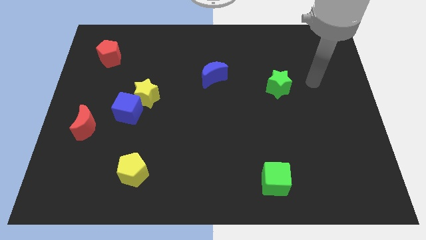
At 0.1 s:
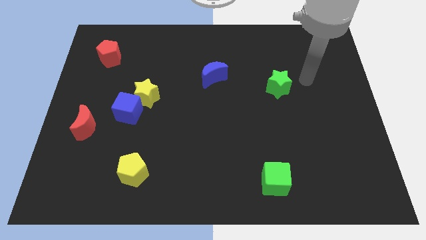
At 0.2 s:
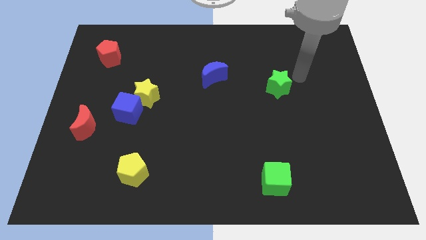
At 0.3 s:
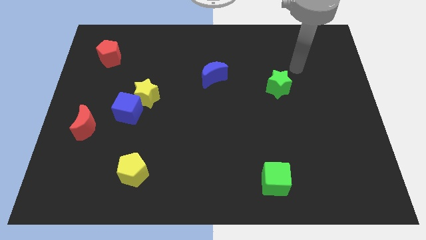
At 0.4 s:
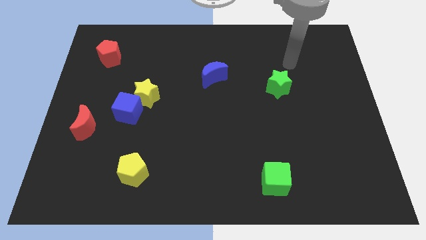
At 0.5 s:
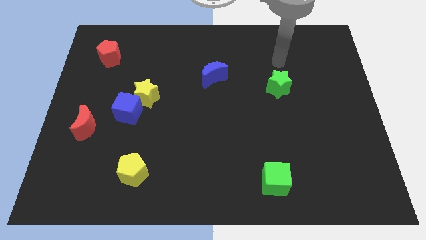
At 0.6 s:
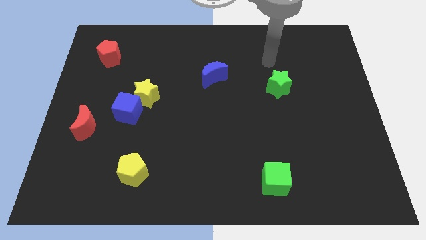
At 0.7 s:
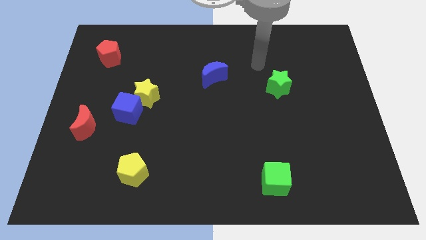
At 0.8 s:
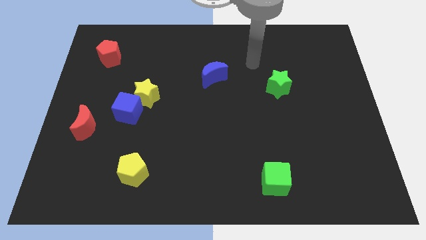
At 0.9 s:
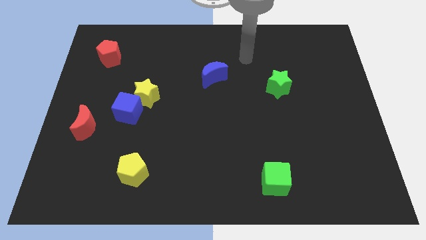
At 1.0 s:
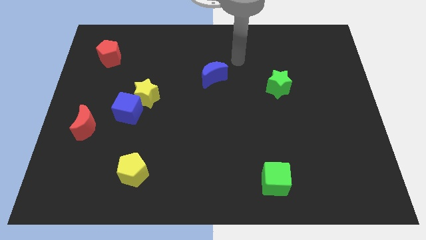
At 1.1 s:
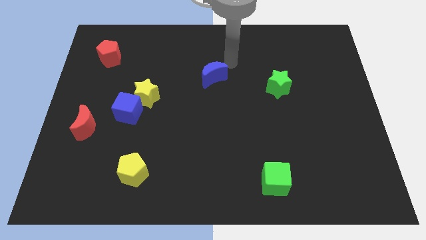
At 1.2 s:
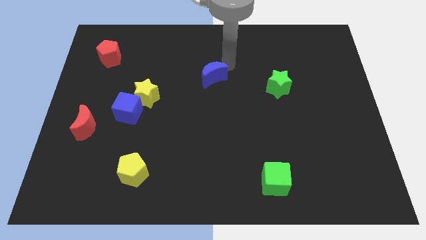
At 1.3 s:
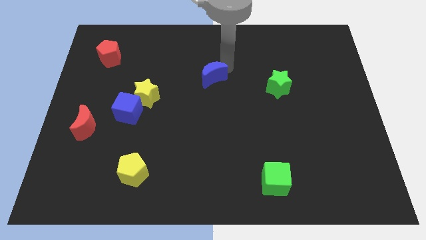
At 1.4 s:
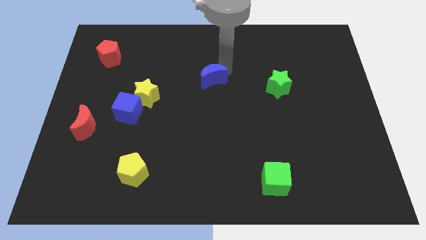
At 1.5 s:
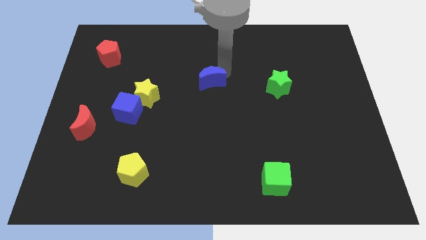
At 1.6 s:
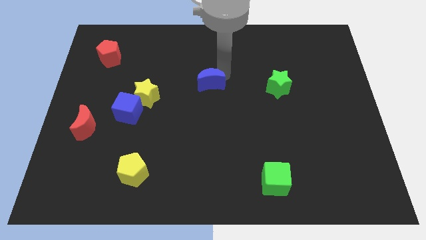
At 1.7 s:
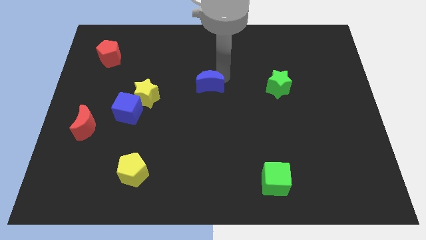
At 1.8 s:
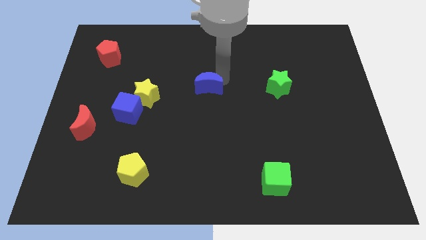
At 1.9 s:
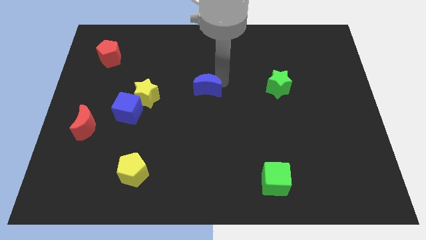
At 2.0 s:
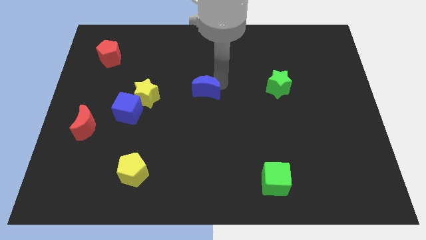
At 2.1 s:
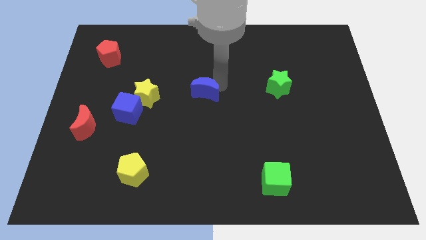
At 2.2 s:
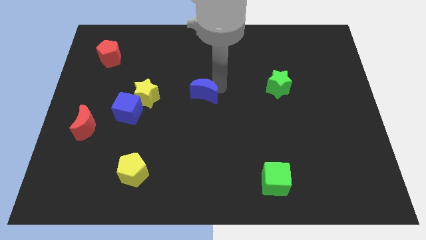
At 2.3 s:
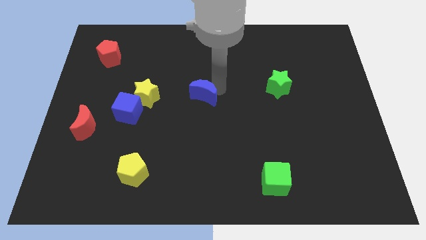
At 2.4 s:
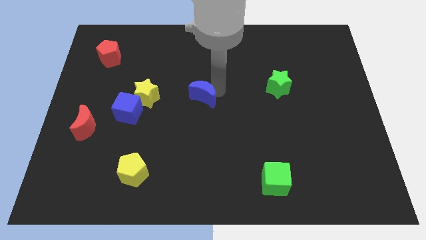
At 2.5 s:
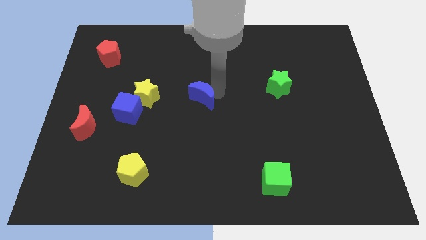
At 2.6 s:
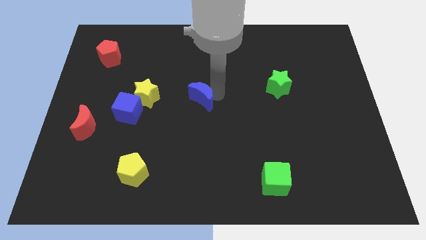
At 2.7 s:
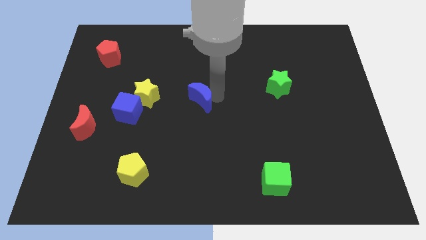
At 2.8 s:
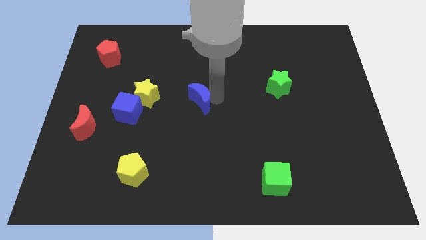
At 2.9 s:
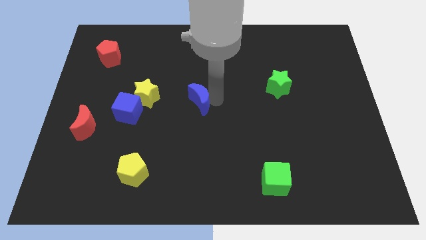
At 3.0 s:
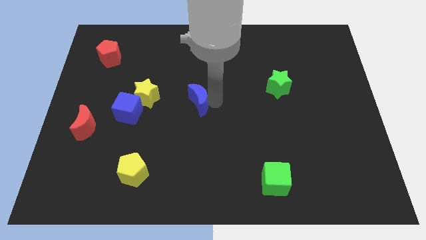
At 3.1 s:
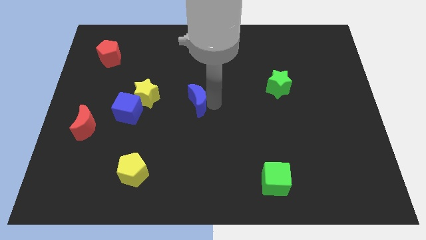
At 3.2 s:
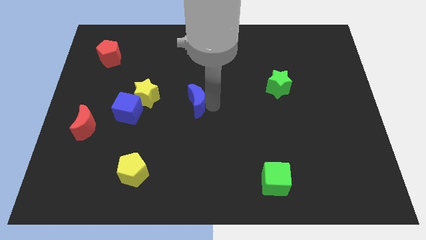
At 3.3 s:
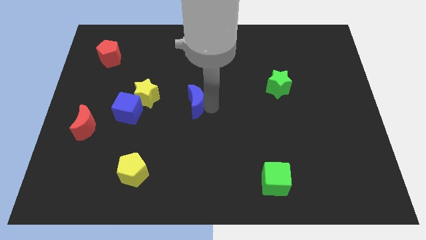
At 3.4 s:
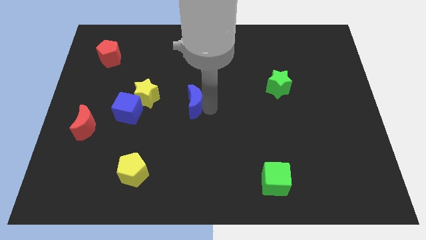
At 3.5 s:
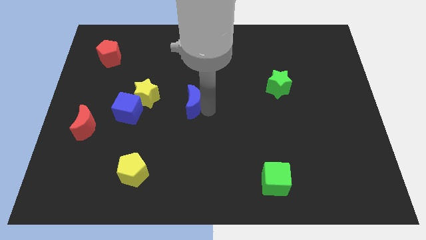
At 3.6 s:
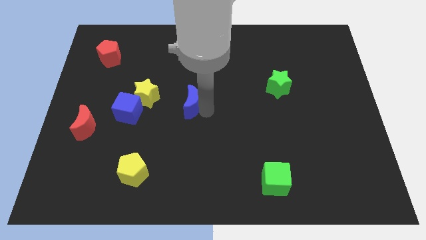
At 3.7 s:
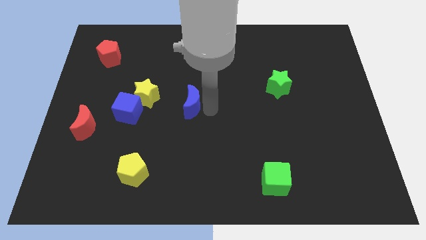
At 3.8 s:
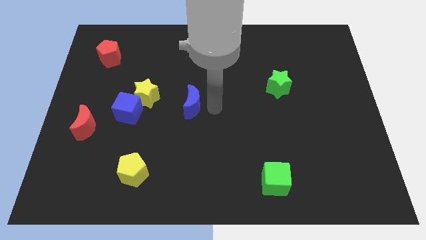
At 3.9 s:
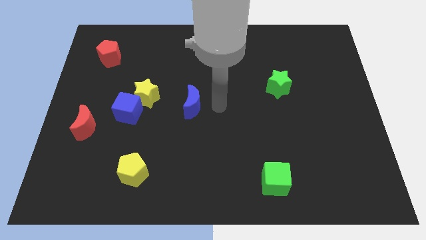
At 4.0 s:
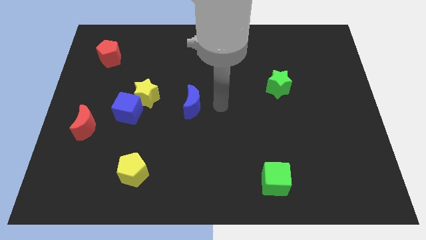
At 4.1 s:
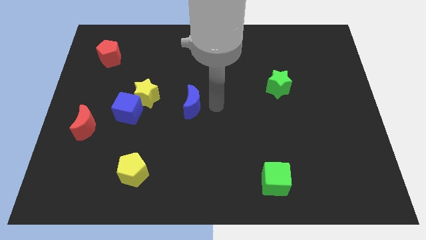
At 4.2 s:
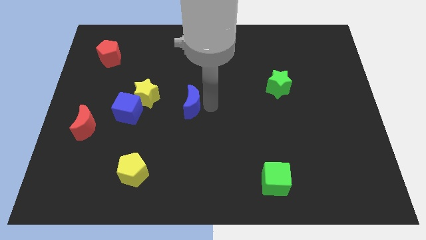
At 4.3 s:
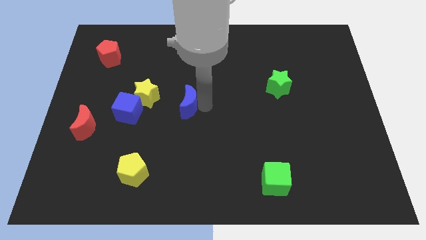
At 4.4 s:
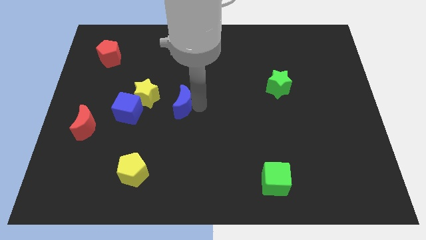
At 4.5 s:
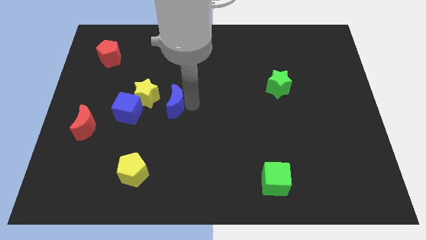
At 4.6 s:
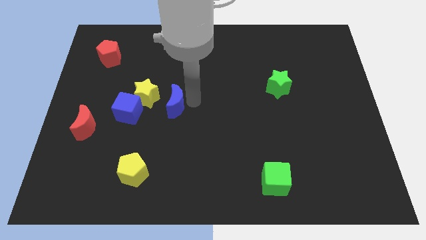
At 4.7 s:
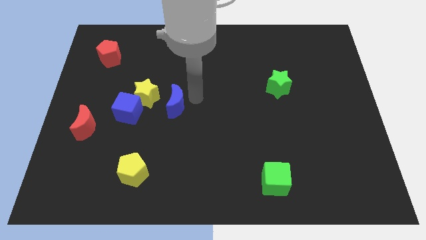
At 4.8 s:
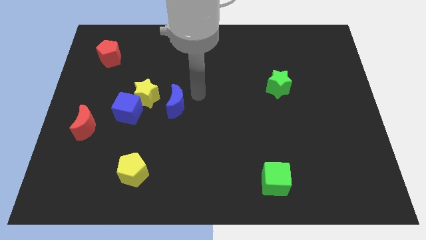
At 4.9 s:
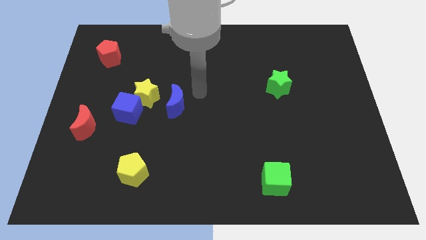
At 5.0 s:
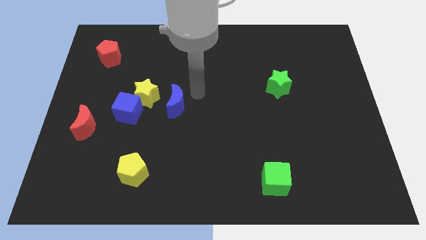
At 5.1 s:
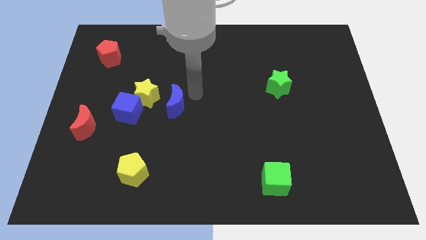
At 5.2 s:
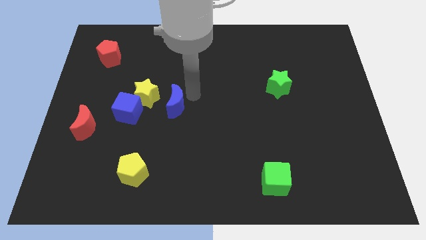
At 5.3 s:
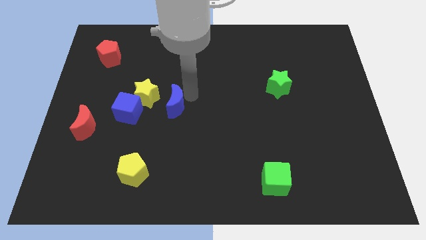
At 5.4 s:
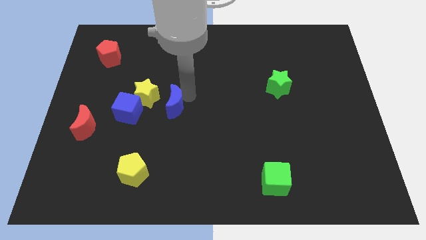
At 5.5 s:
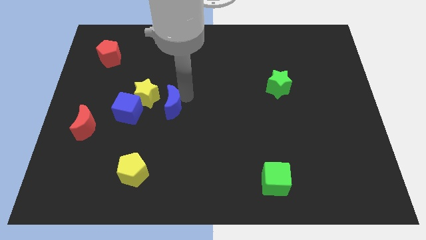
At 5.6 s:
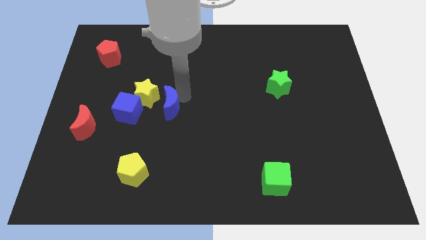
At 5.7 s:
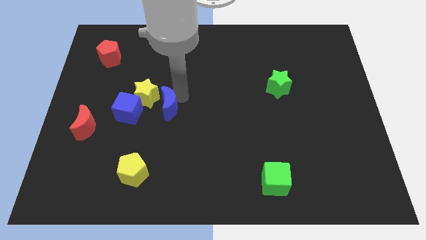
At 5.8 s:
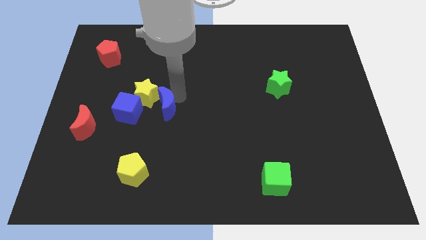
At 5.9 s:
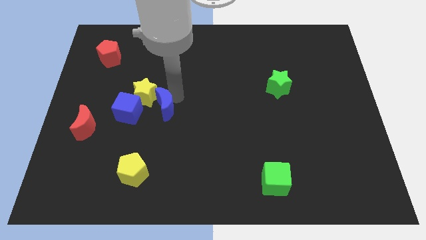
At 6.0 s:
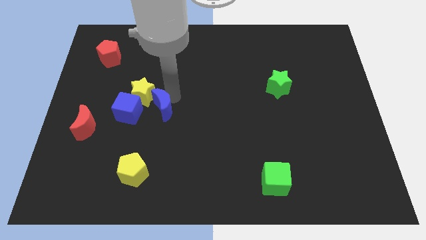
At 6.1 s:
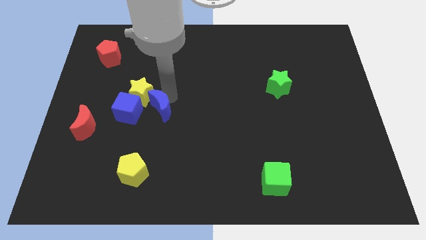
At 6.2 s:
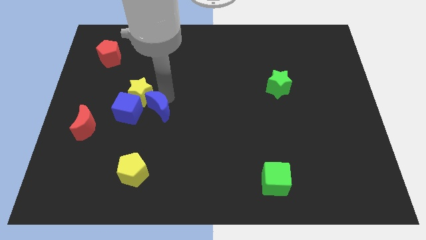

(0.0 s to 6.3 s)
put the blue moon to the bottom side of the yellow star
